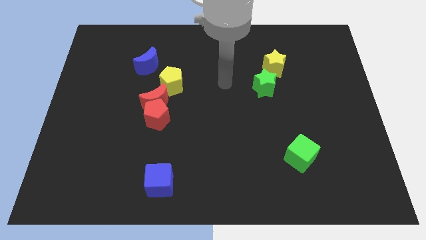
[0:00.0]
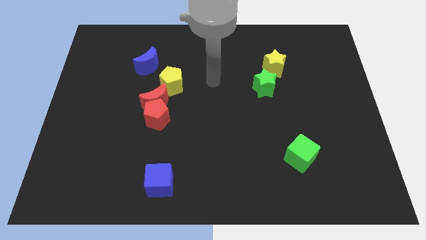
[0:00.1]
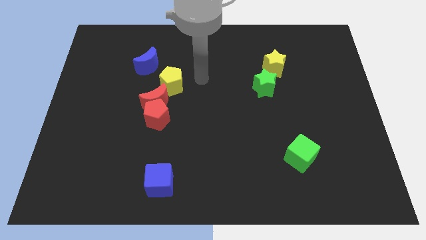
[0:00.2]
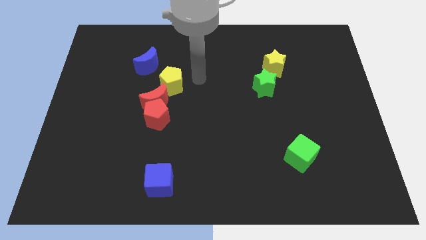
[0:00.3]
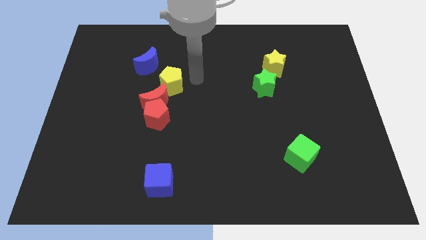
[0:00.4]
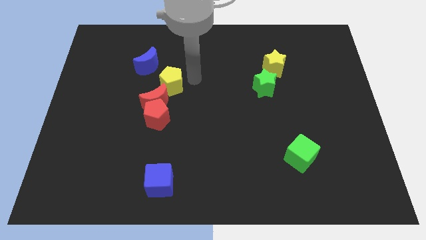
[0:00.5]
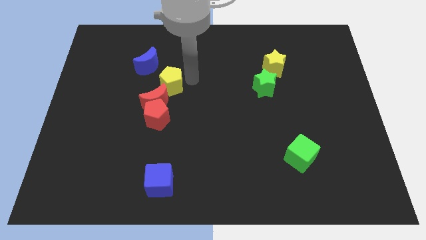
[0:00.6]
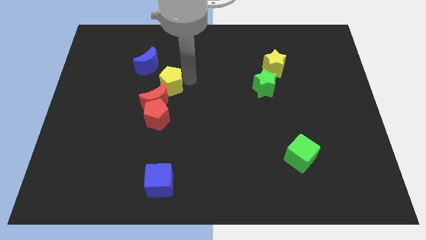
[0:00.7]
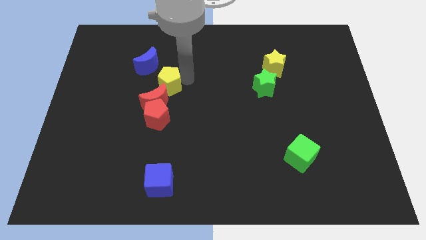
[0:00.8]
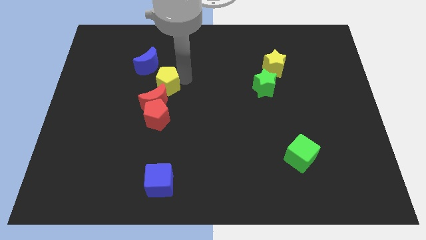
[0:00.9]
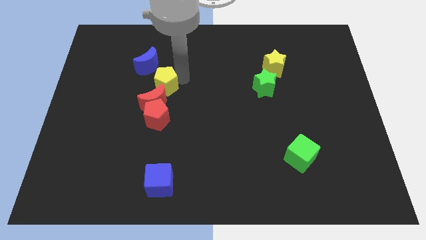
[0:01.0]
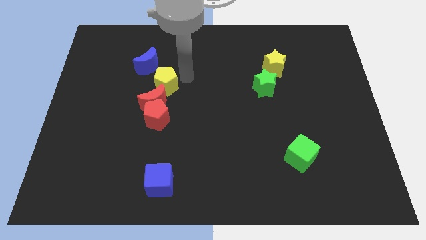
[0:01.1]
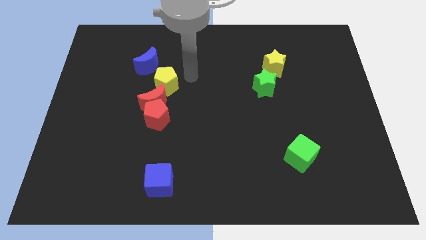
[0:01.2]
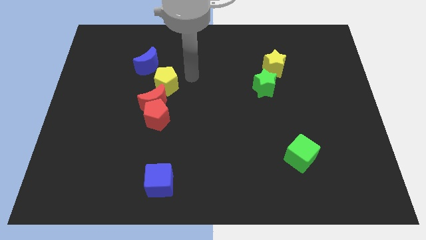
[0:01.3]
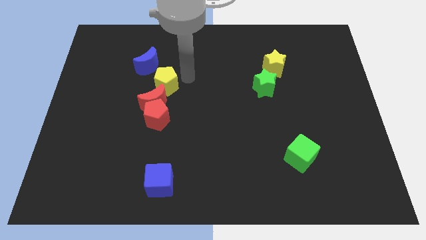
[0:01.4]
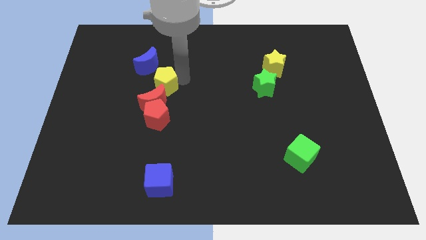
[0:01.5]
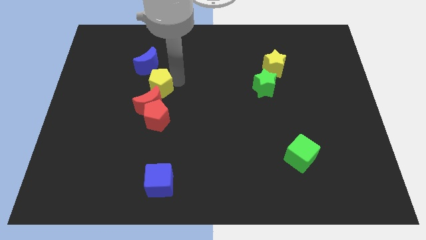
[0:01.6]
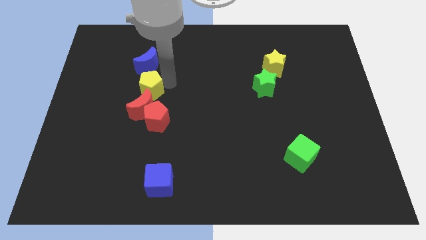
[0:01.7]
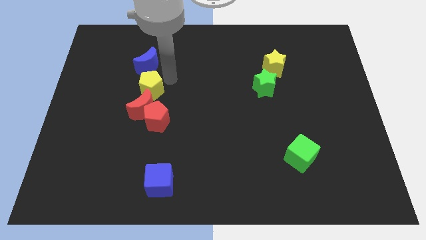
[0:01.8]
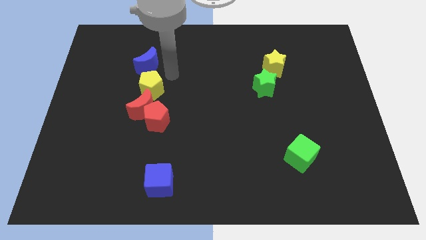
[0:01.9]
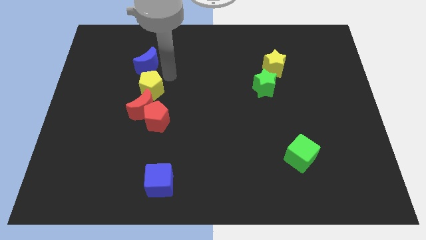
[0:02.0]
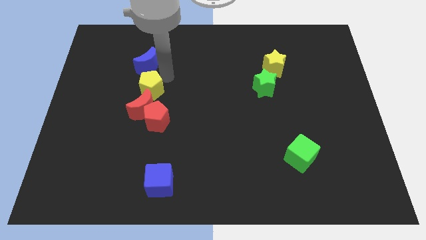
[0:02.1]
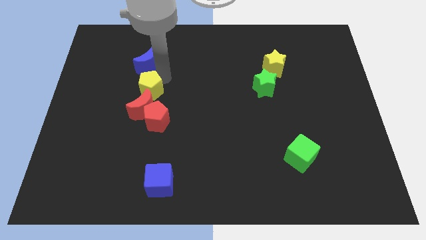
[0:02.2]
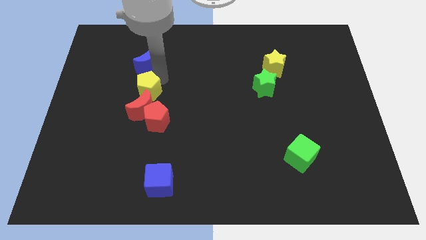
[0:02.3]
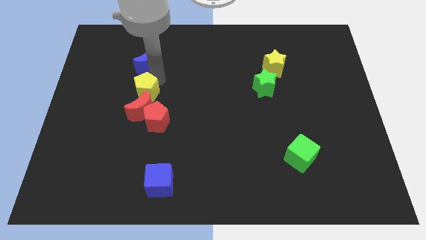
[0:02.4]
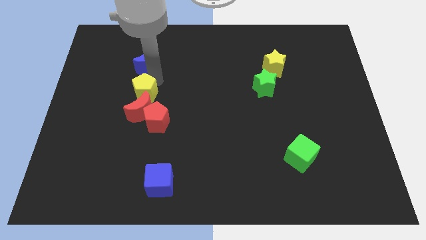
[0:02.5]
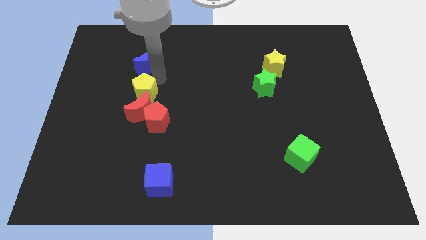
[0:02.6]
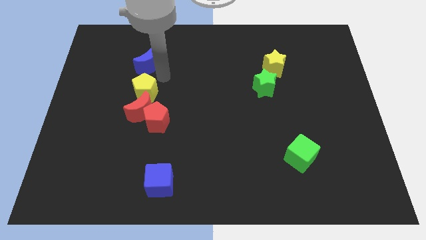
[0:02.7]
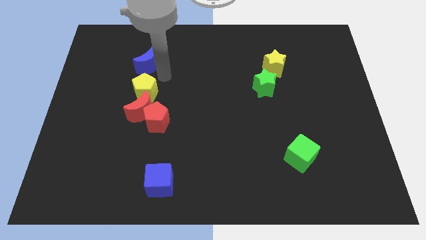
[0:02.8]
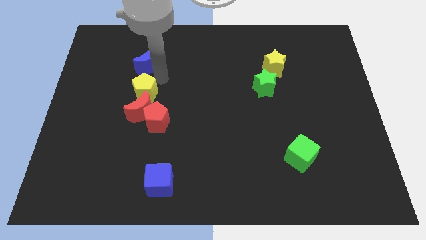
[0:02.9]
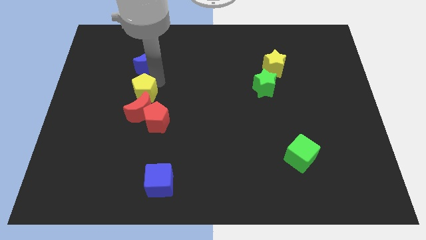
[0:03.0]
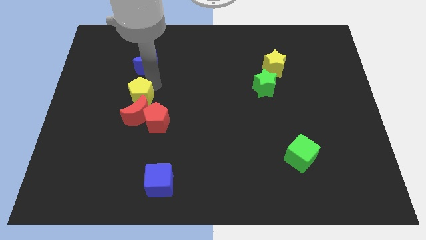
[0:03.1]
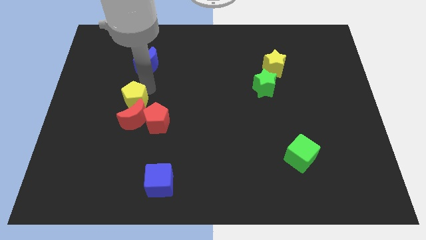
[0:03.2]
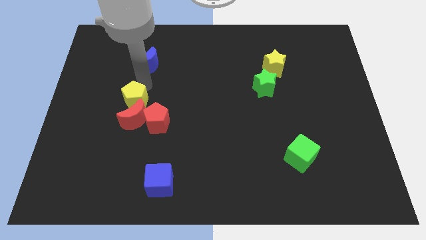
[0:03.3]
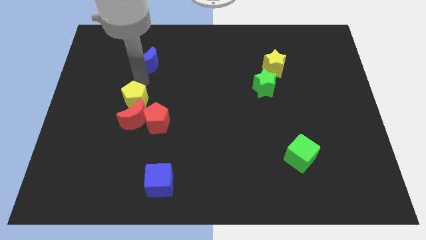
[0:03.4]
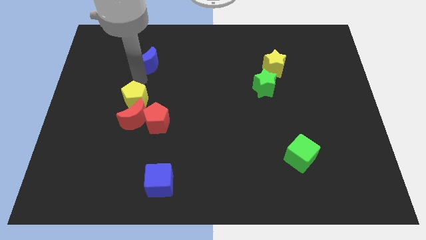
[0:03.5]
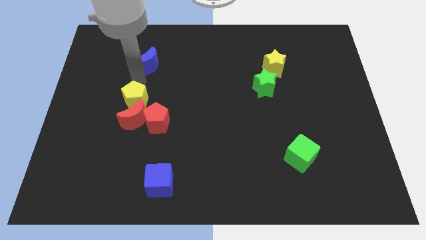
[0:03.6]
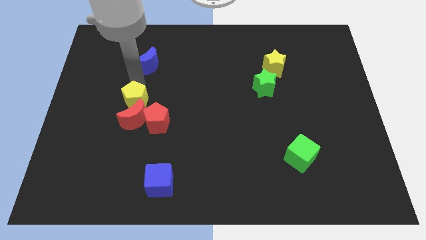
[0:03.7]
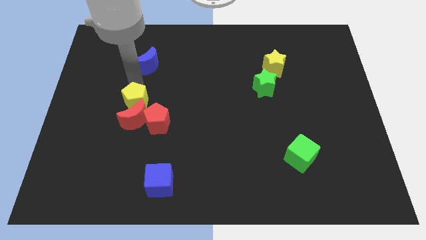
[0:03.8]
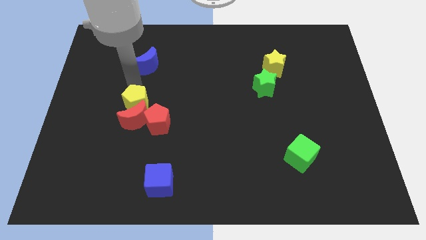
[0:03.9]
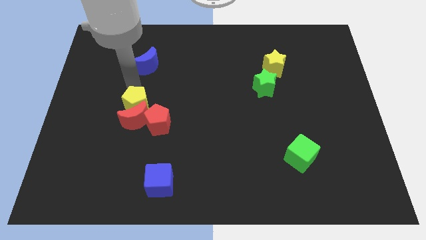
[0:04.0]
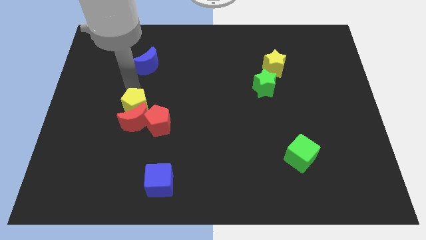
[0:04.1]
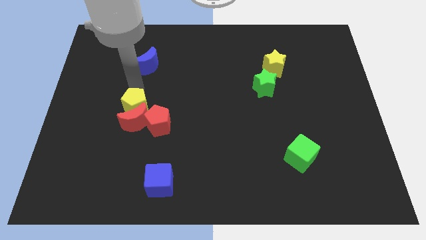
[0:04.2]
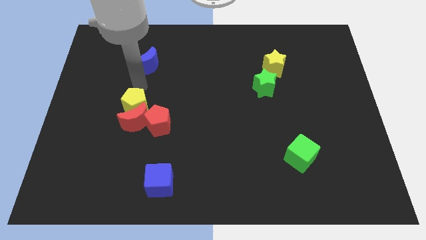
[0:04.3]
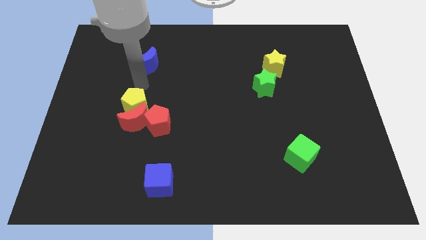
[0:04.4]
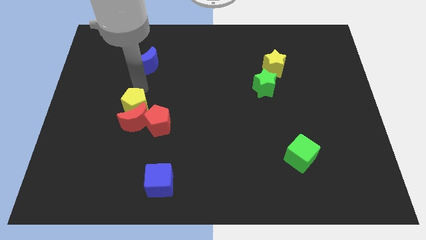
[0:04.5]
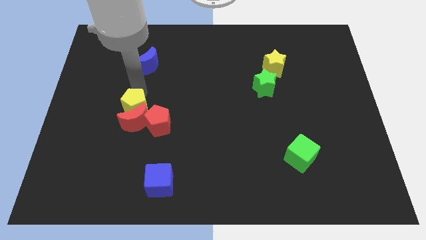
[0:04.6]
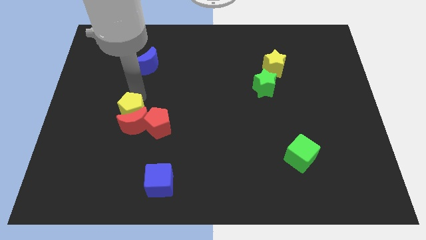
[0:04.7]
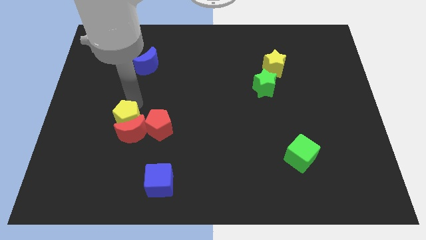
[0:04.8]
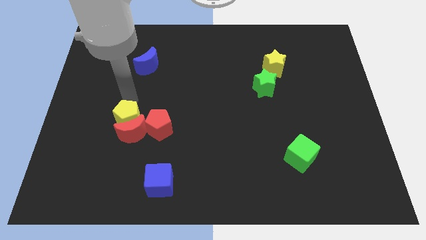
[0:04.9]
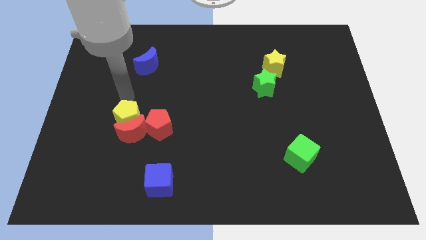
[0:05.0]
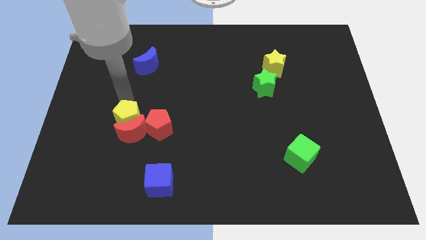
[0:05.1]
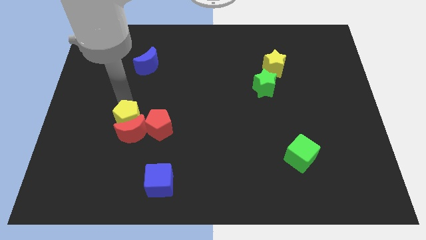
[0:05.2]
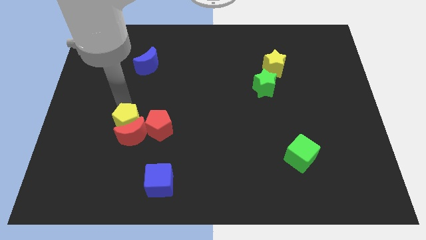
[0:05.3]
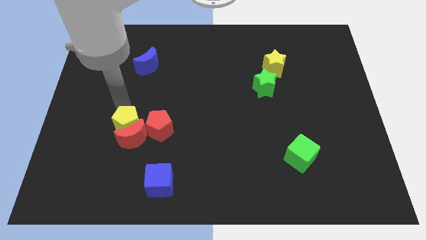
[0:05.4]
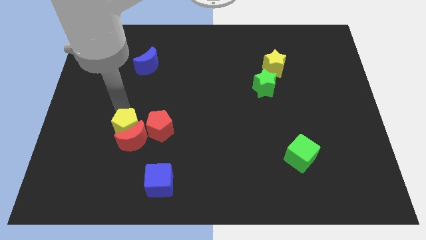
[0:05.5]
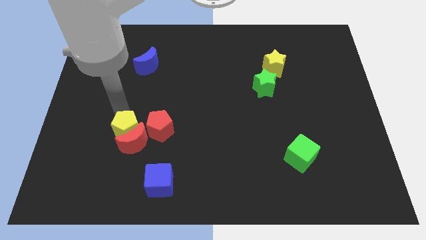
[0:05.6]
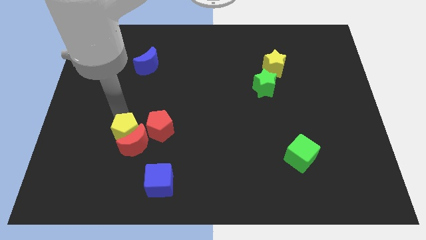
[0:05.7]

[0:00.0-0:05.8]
push the yellow pentagon to the bottom left of the red pentagon

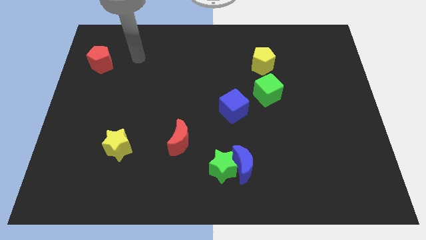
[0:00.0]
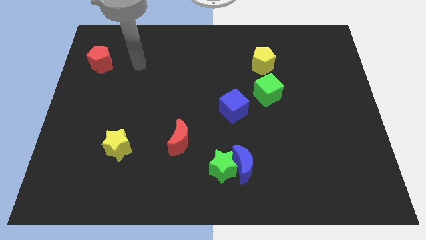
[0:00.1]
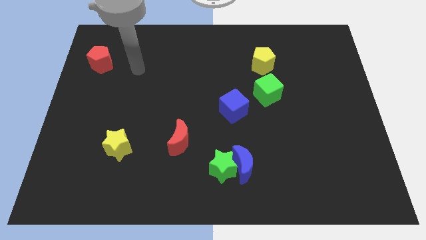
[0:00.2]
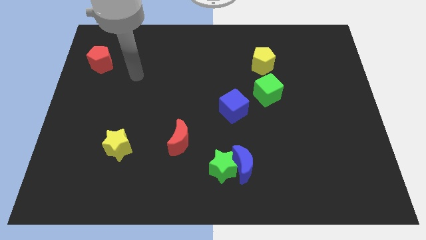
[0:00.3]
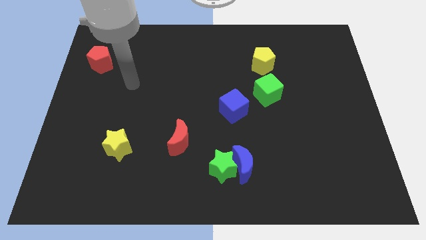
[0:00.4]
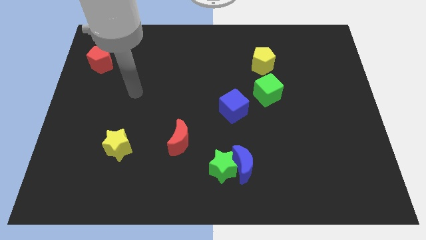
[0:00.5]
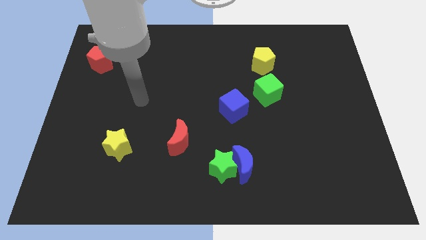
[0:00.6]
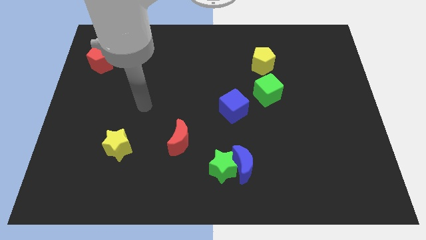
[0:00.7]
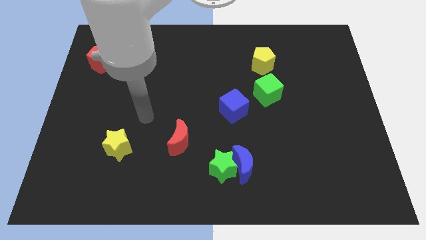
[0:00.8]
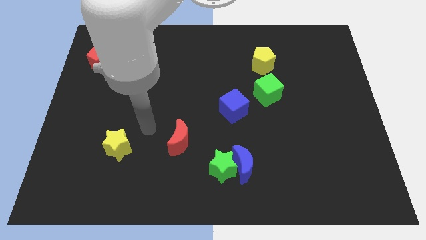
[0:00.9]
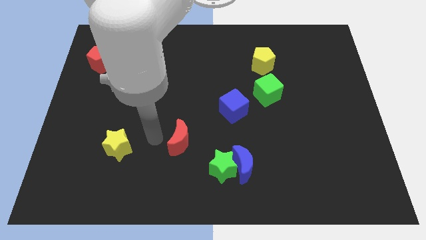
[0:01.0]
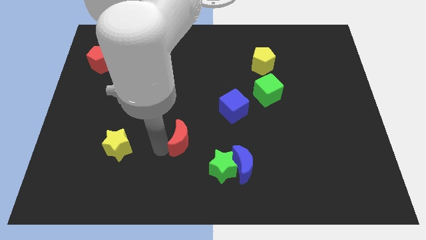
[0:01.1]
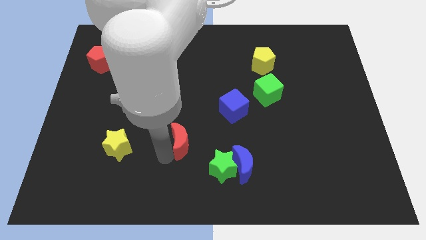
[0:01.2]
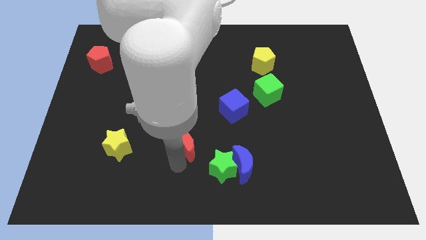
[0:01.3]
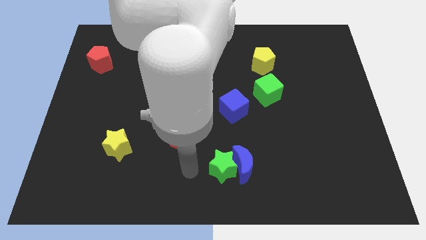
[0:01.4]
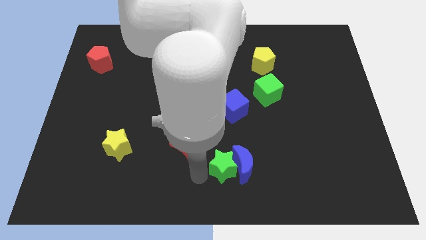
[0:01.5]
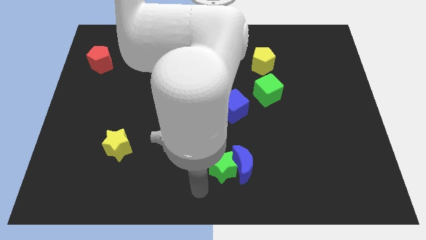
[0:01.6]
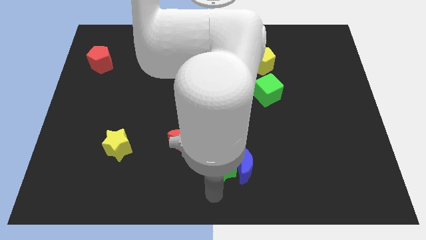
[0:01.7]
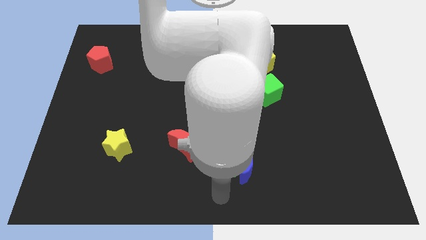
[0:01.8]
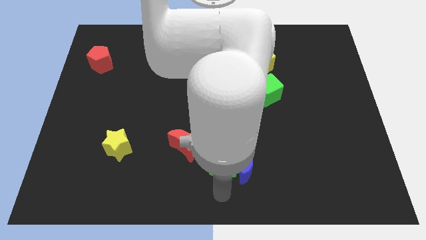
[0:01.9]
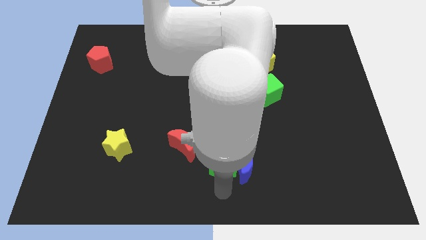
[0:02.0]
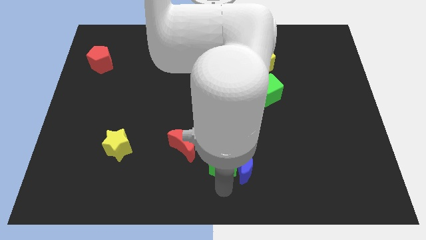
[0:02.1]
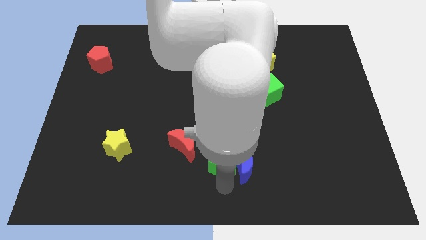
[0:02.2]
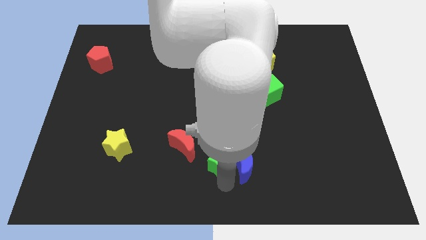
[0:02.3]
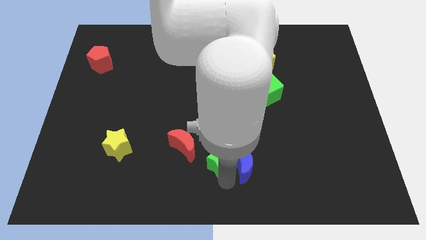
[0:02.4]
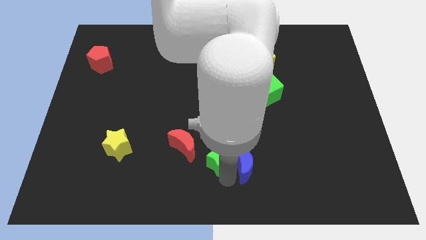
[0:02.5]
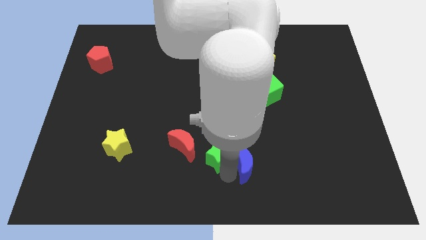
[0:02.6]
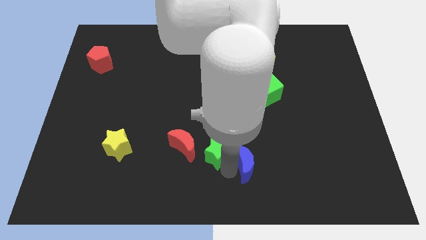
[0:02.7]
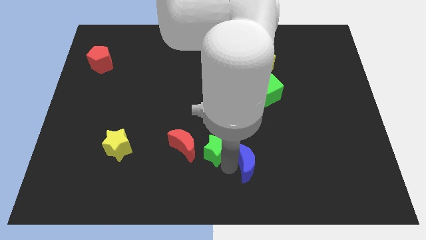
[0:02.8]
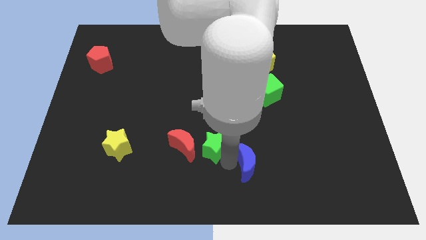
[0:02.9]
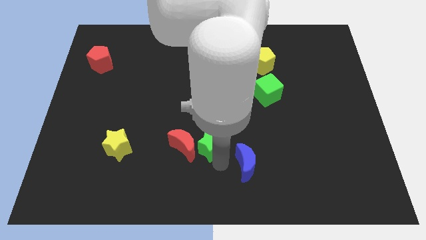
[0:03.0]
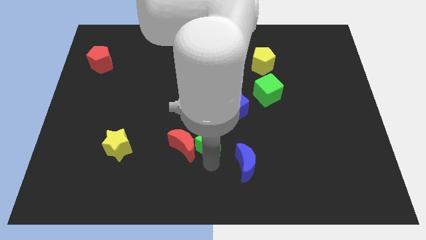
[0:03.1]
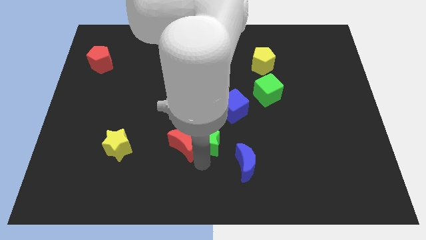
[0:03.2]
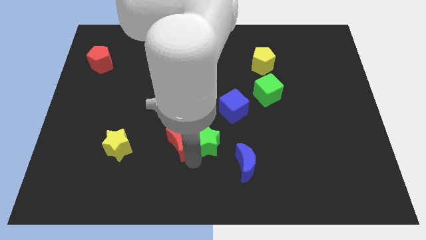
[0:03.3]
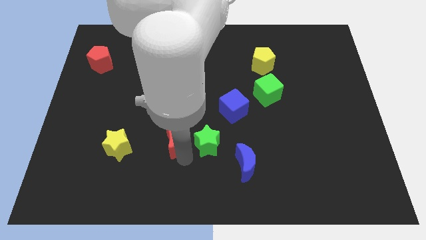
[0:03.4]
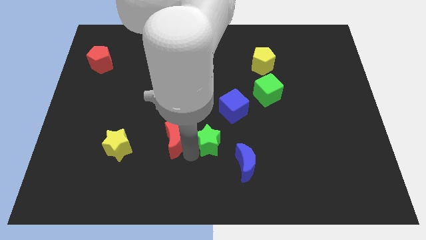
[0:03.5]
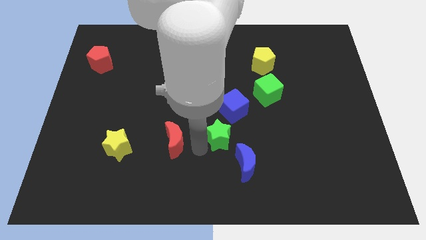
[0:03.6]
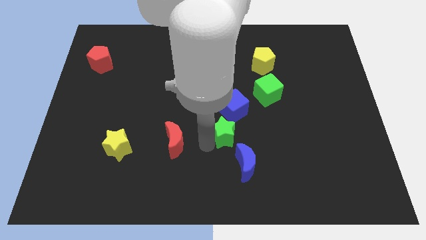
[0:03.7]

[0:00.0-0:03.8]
slide the green star to the top side of the blue moon
